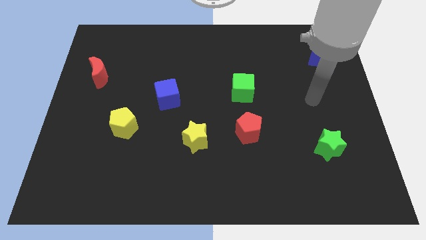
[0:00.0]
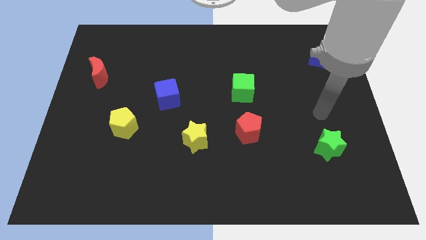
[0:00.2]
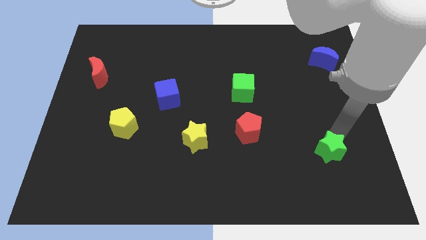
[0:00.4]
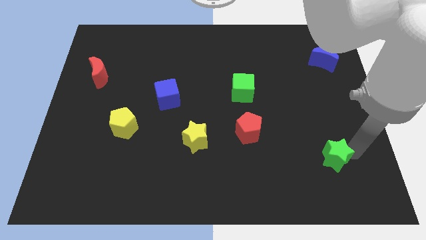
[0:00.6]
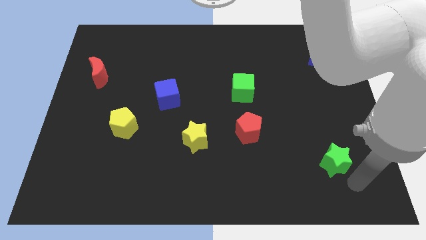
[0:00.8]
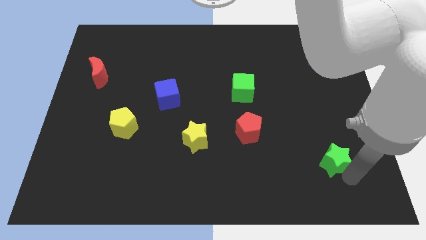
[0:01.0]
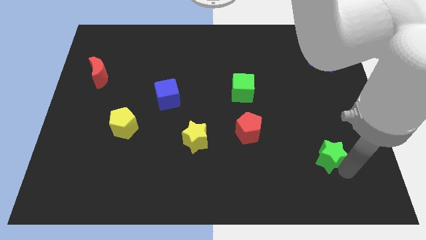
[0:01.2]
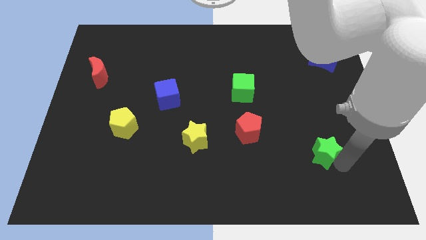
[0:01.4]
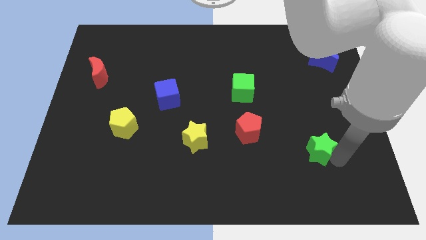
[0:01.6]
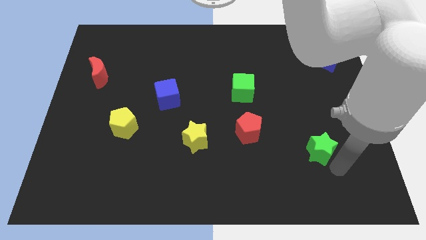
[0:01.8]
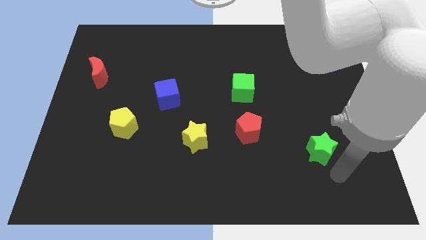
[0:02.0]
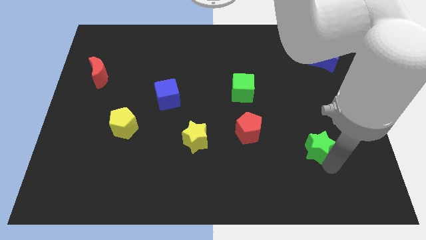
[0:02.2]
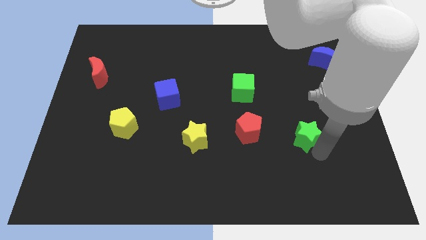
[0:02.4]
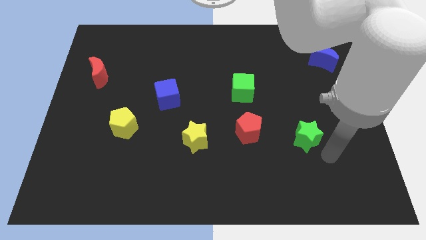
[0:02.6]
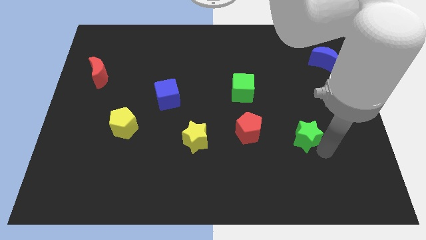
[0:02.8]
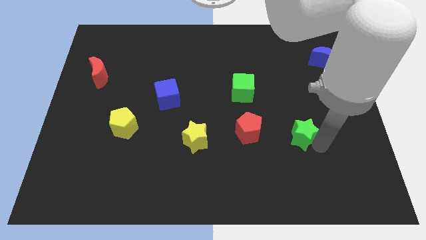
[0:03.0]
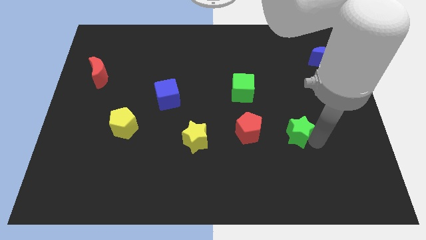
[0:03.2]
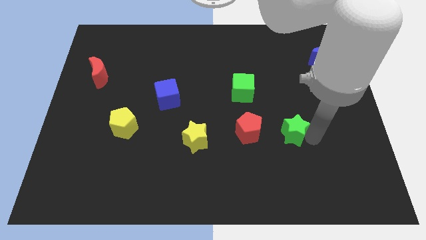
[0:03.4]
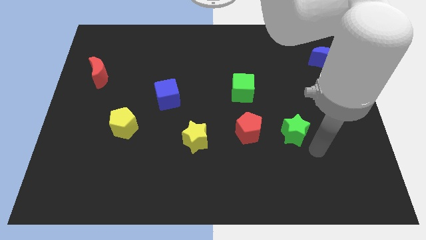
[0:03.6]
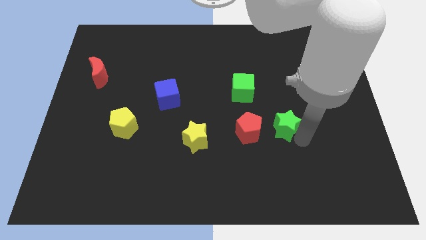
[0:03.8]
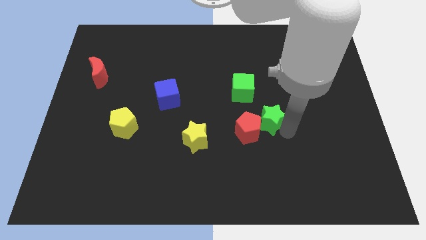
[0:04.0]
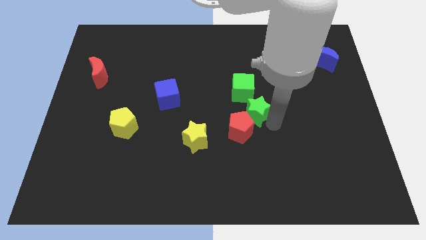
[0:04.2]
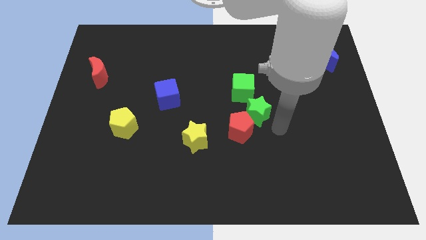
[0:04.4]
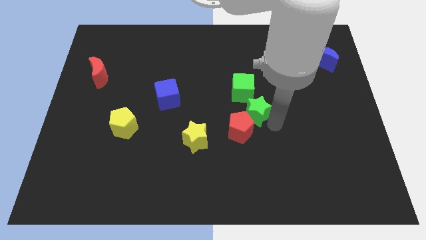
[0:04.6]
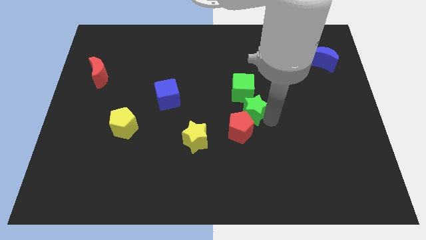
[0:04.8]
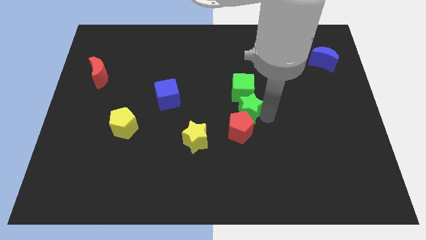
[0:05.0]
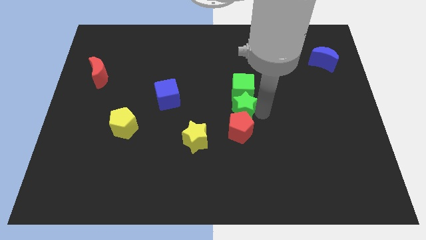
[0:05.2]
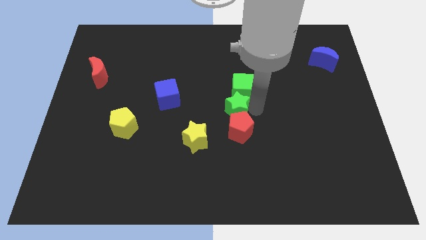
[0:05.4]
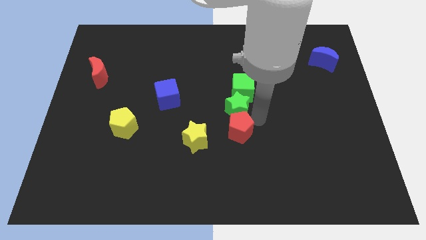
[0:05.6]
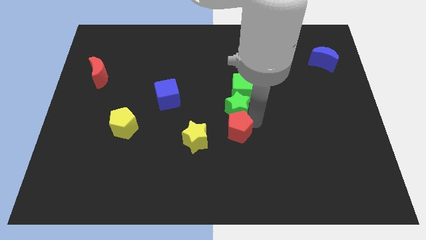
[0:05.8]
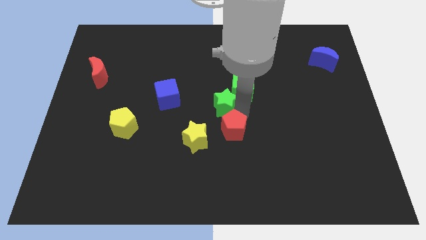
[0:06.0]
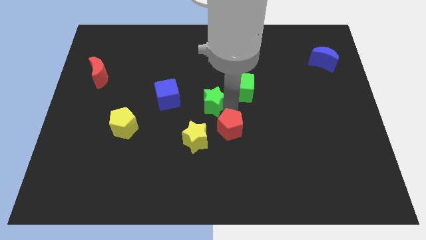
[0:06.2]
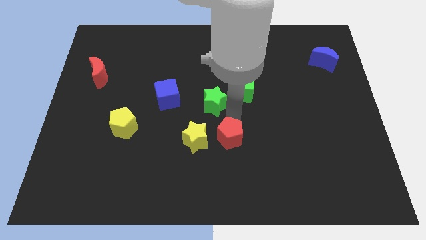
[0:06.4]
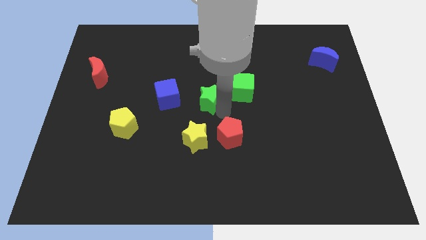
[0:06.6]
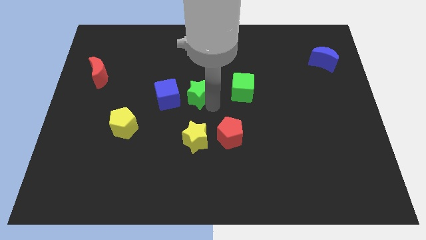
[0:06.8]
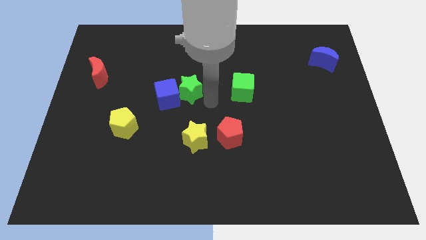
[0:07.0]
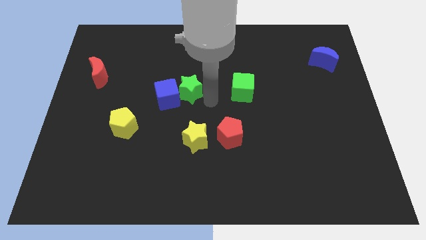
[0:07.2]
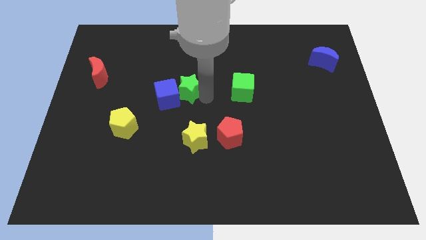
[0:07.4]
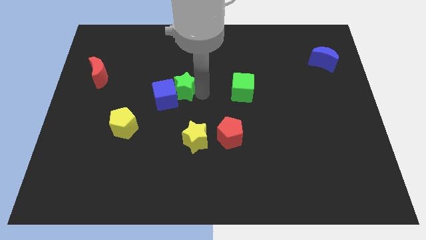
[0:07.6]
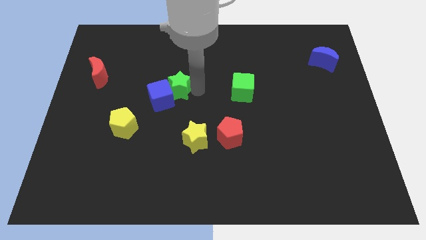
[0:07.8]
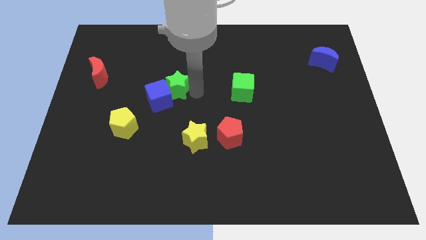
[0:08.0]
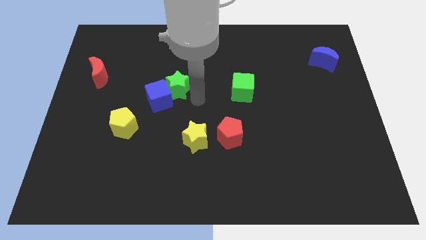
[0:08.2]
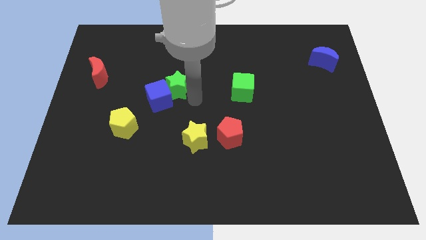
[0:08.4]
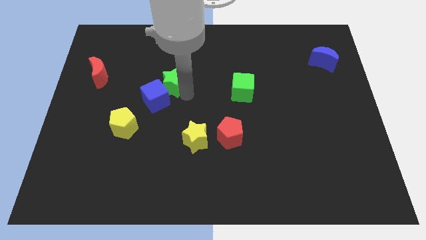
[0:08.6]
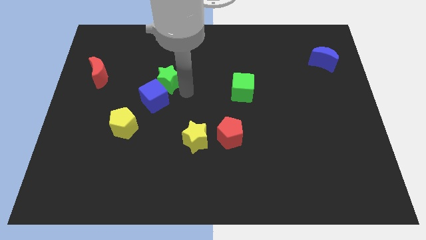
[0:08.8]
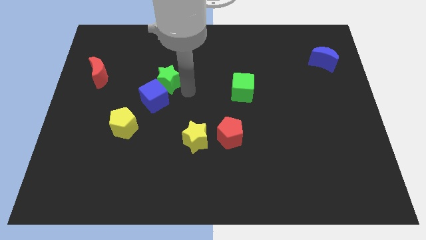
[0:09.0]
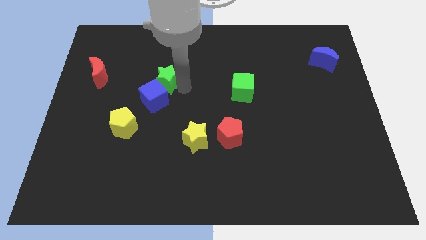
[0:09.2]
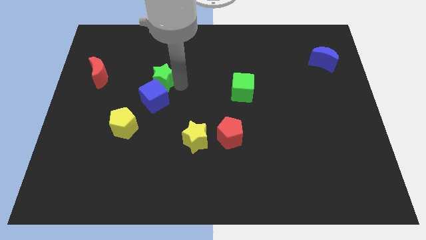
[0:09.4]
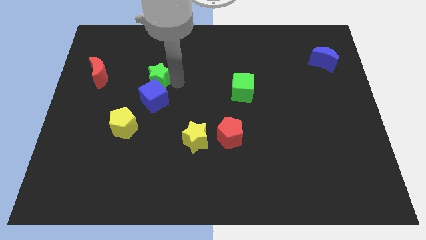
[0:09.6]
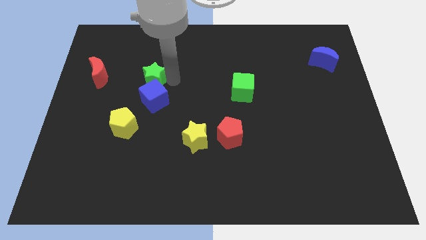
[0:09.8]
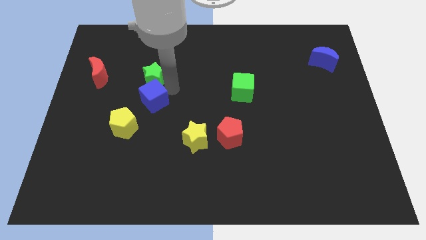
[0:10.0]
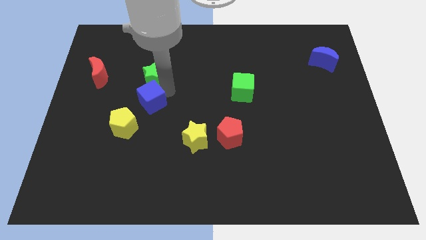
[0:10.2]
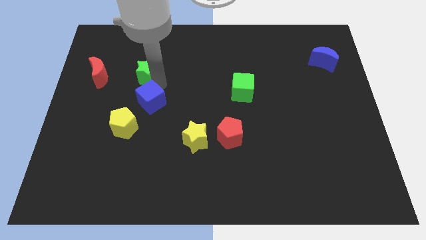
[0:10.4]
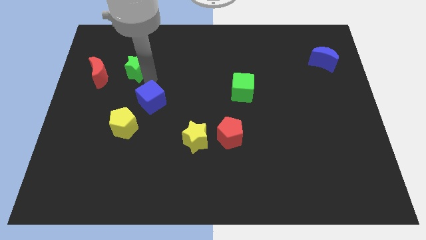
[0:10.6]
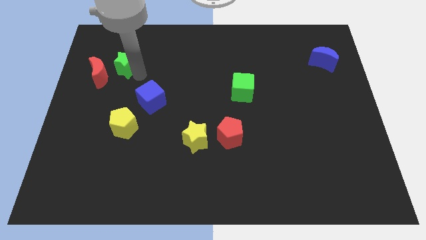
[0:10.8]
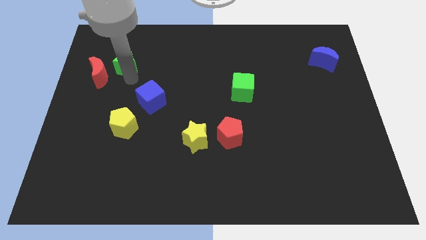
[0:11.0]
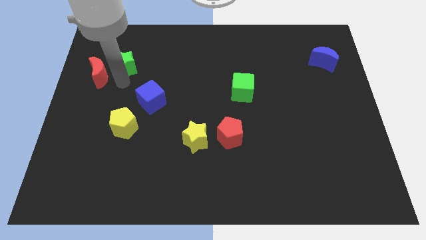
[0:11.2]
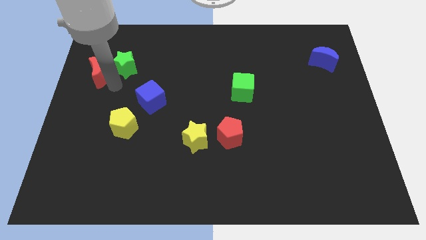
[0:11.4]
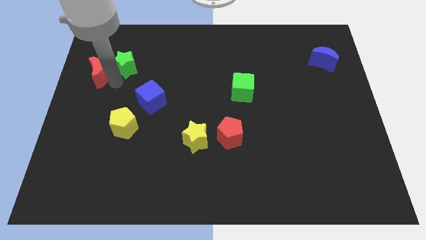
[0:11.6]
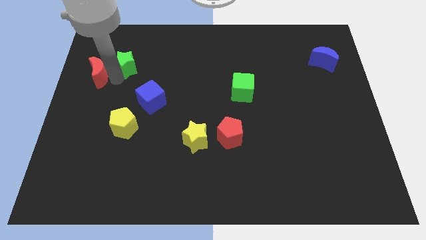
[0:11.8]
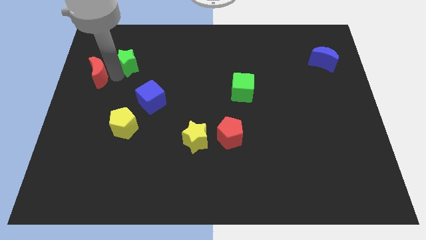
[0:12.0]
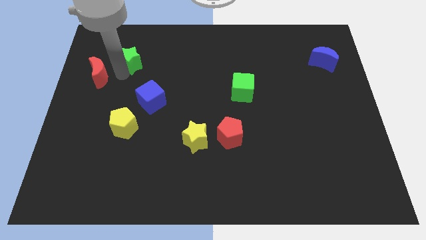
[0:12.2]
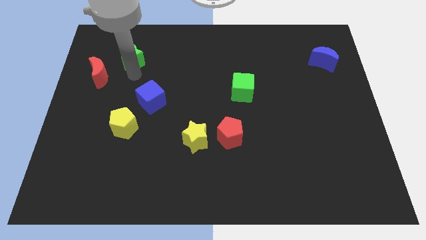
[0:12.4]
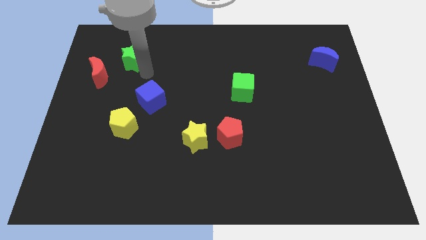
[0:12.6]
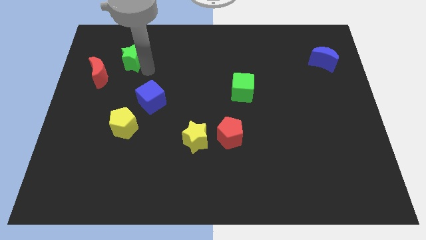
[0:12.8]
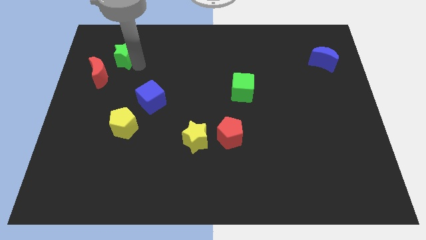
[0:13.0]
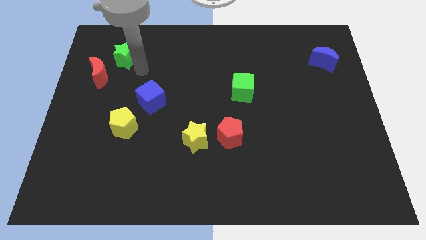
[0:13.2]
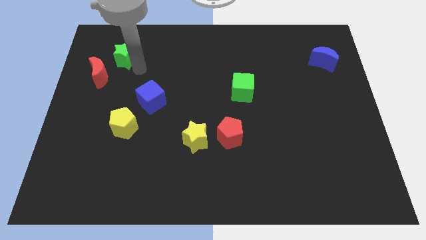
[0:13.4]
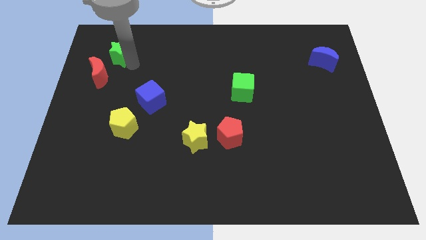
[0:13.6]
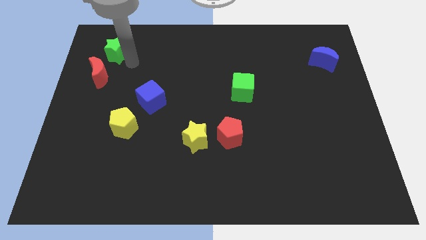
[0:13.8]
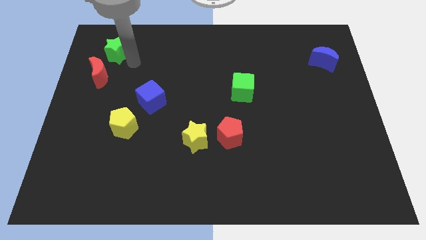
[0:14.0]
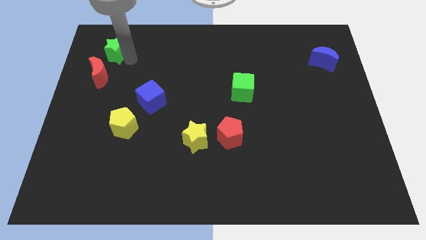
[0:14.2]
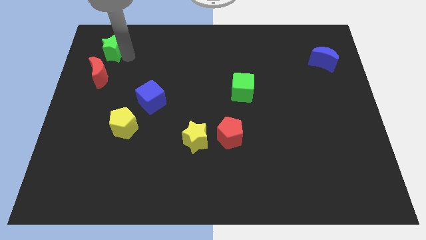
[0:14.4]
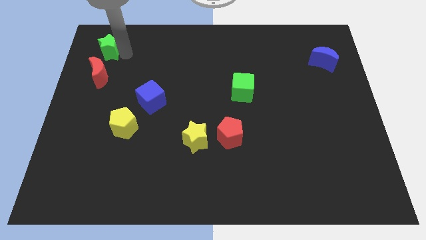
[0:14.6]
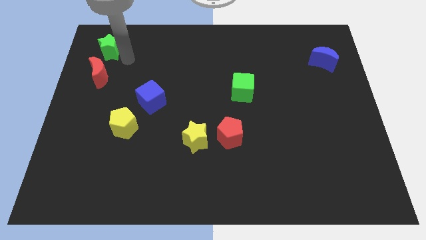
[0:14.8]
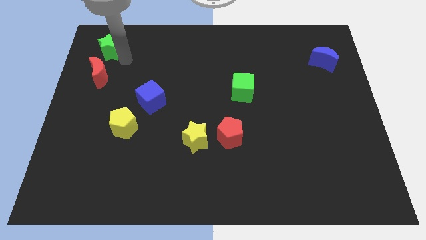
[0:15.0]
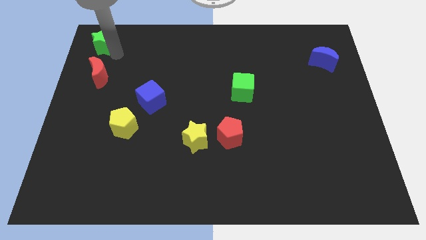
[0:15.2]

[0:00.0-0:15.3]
put the green star to the top left of the board

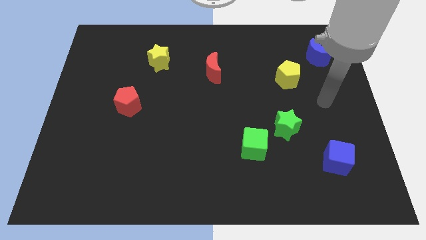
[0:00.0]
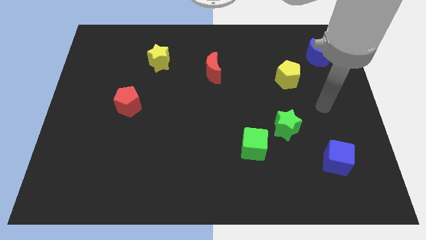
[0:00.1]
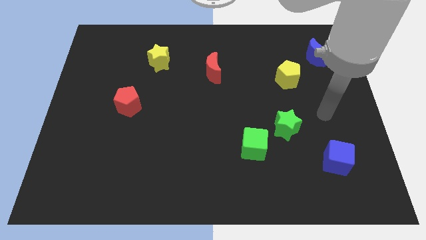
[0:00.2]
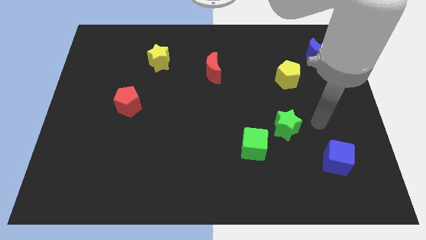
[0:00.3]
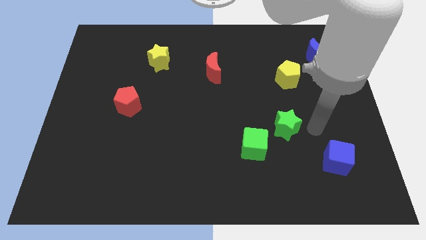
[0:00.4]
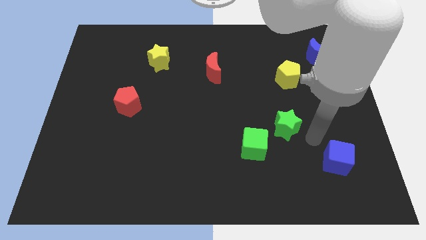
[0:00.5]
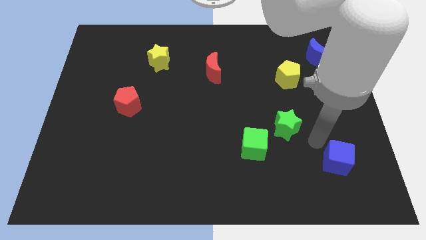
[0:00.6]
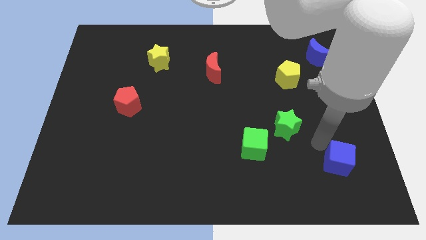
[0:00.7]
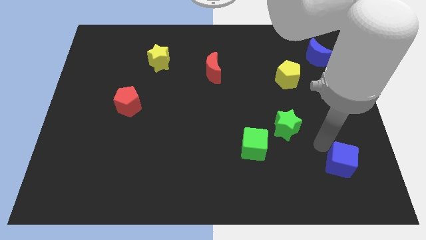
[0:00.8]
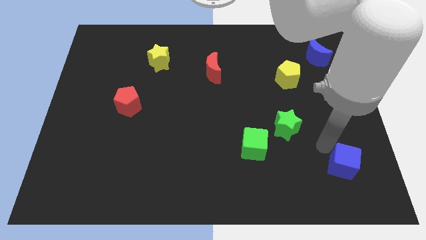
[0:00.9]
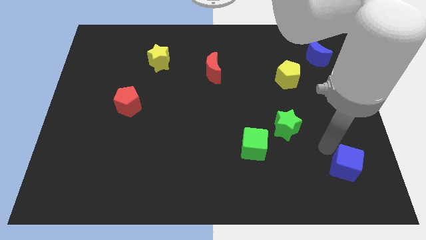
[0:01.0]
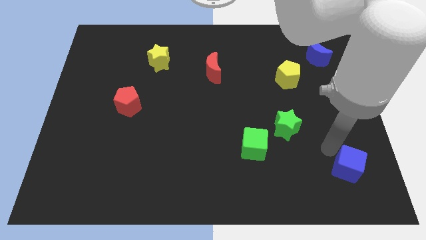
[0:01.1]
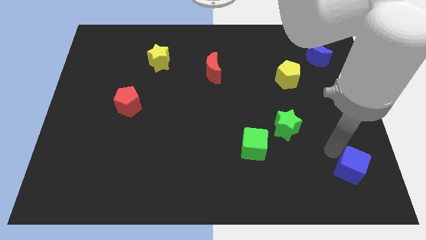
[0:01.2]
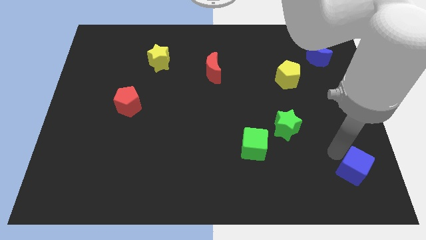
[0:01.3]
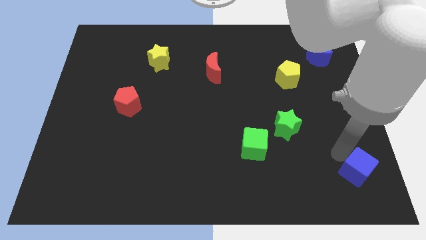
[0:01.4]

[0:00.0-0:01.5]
put the blue cube to the bottom right corner
